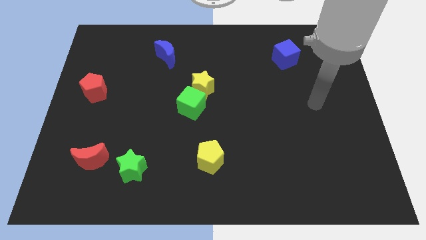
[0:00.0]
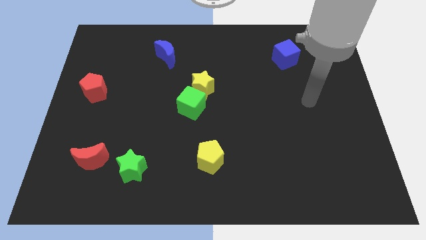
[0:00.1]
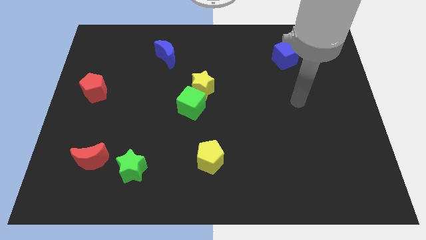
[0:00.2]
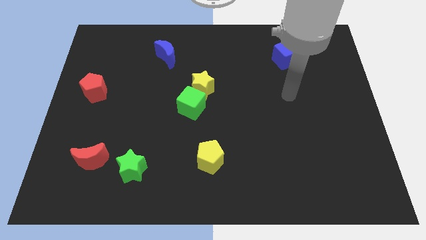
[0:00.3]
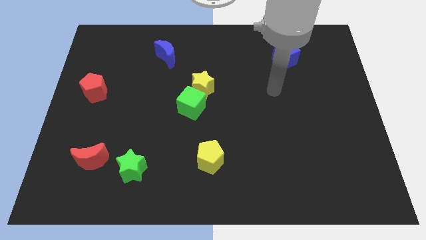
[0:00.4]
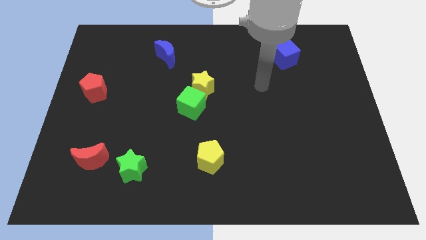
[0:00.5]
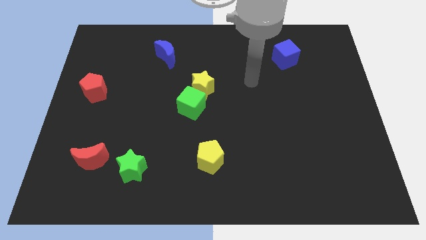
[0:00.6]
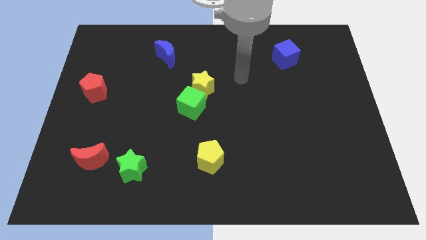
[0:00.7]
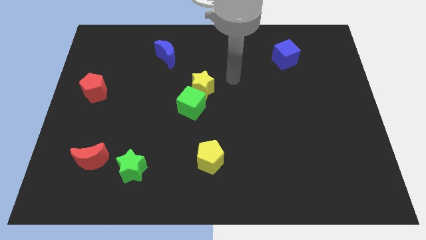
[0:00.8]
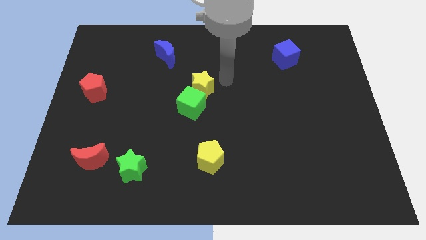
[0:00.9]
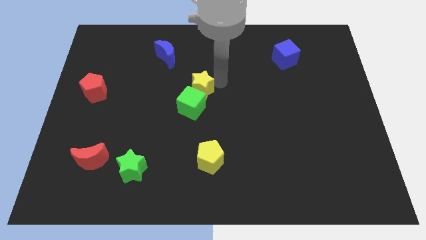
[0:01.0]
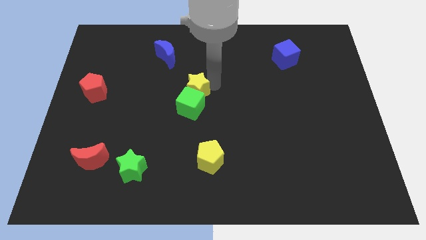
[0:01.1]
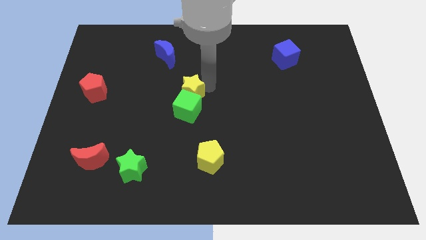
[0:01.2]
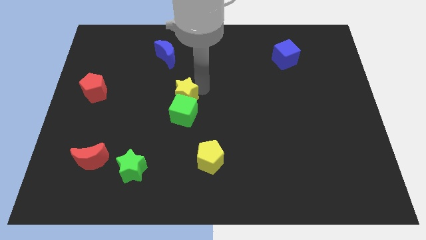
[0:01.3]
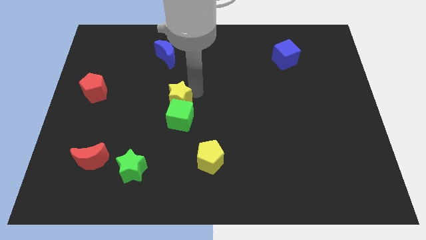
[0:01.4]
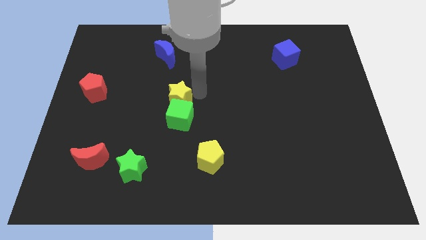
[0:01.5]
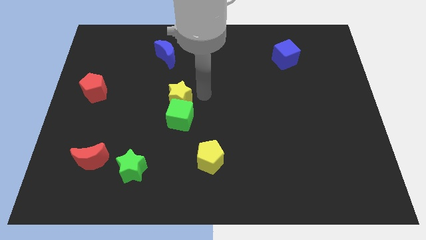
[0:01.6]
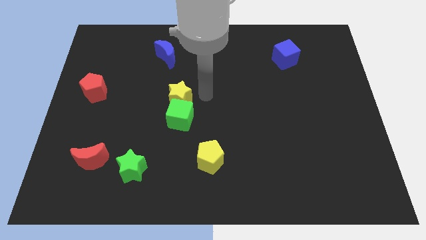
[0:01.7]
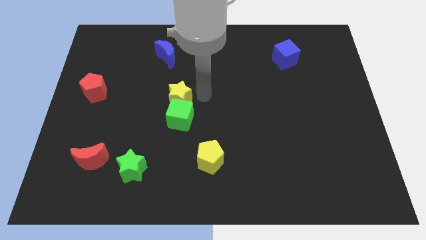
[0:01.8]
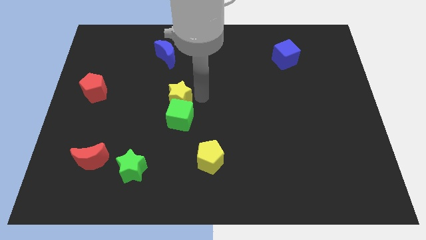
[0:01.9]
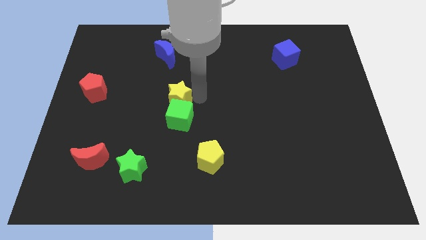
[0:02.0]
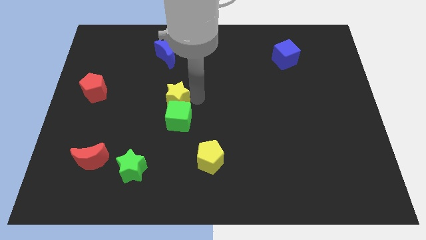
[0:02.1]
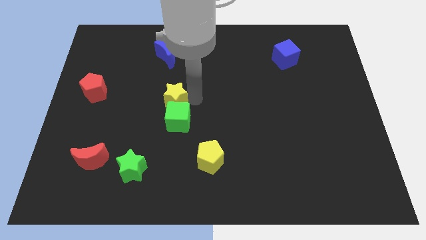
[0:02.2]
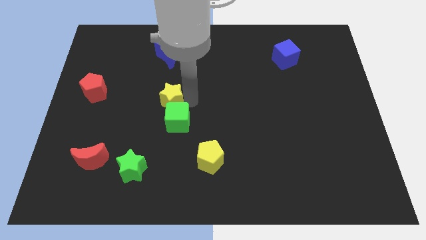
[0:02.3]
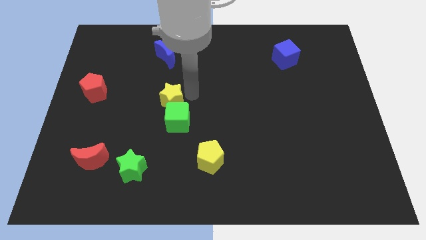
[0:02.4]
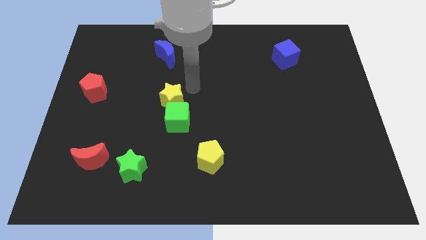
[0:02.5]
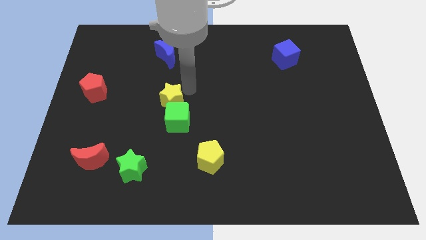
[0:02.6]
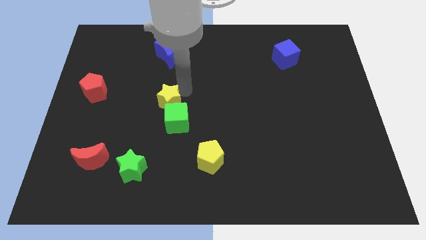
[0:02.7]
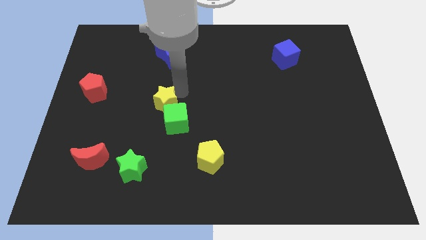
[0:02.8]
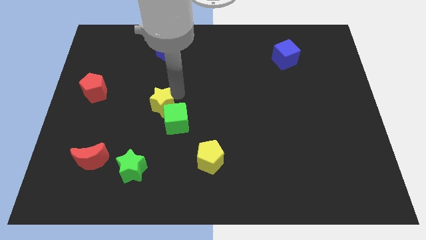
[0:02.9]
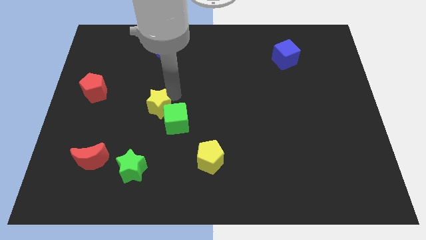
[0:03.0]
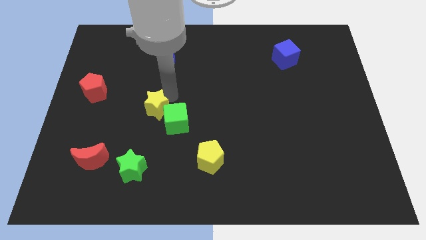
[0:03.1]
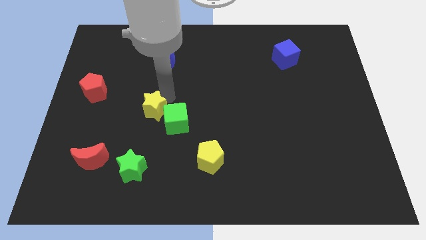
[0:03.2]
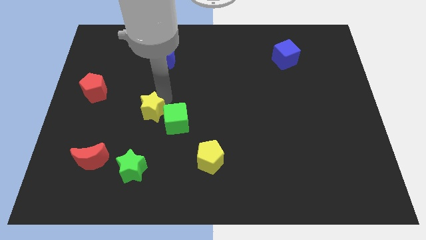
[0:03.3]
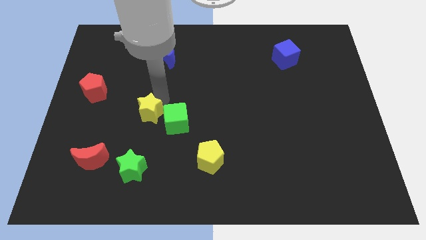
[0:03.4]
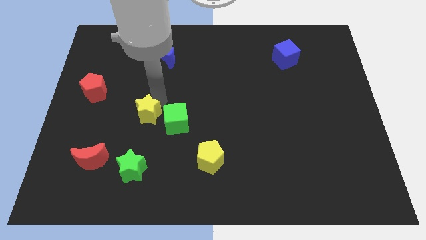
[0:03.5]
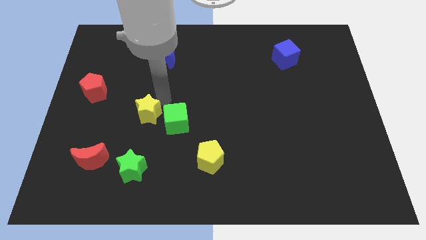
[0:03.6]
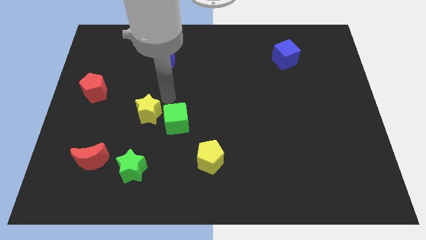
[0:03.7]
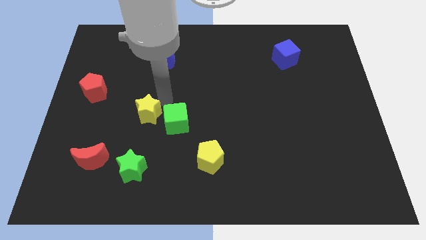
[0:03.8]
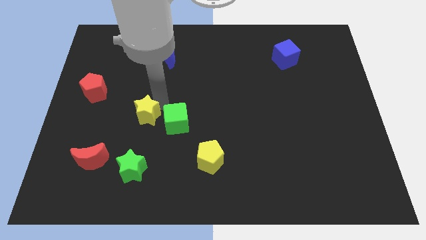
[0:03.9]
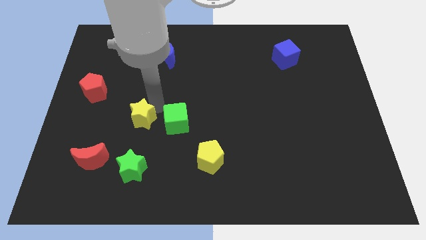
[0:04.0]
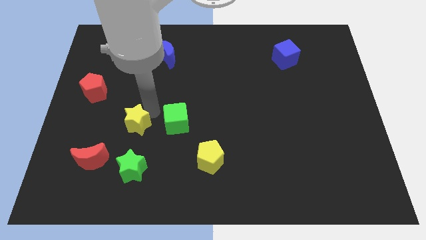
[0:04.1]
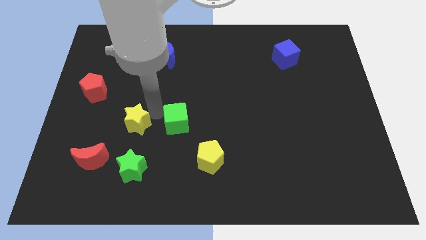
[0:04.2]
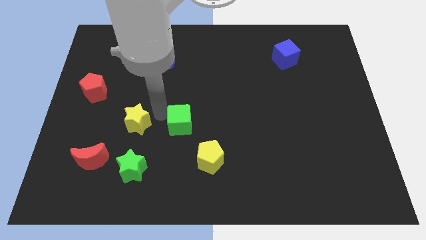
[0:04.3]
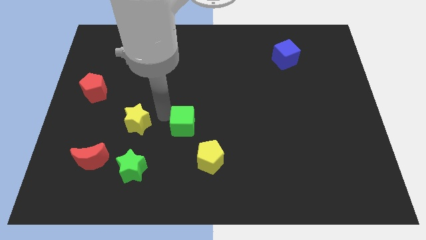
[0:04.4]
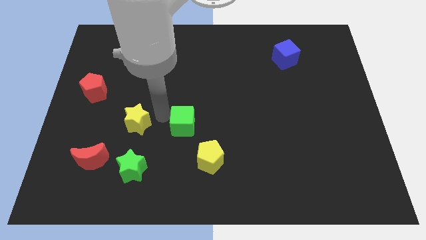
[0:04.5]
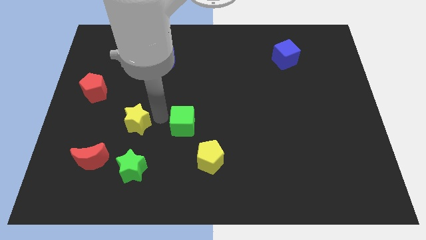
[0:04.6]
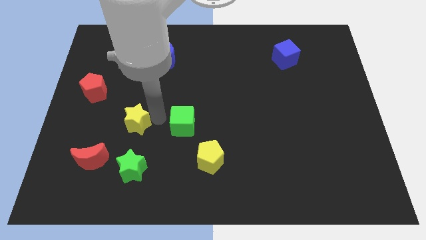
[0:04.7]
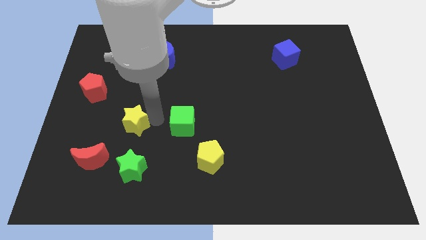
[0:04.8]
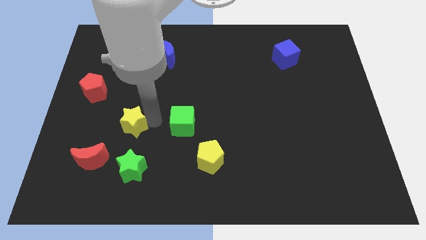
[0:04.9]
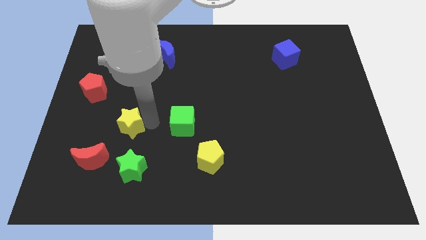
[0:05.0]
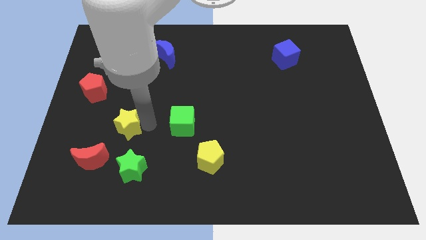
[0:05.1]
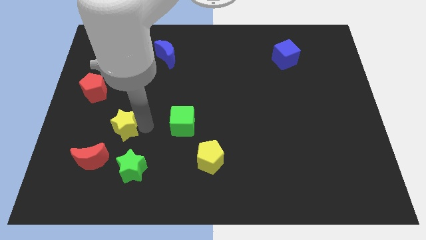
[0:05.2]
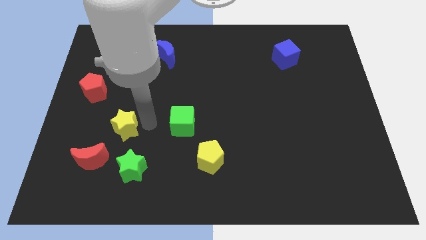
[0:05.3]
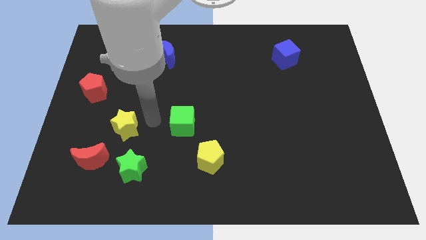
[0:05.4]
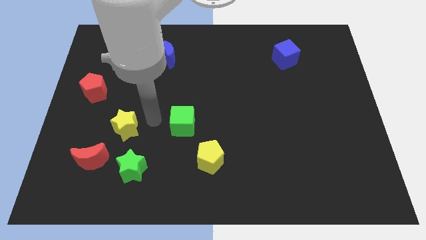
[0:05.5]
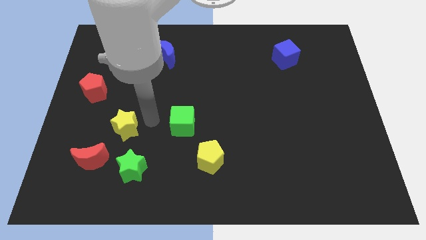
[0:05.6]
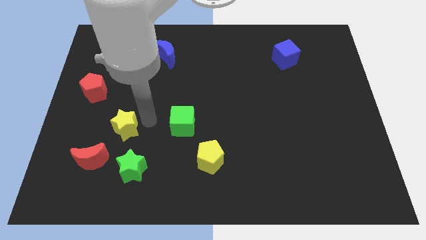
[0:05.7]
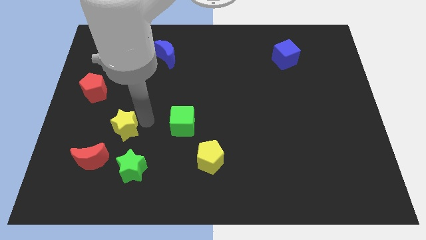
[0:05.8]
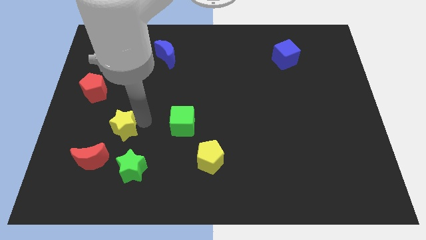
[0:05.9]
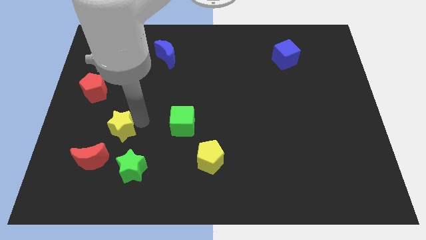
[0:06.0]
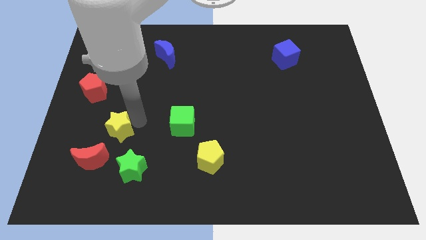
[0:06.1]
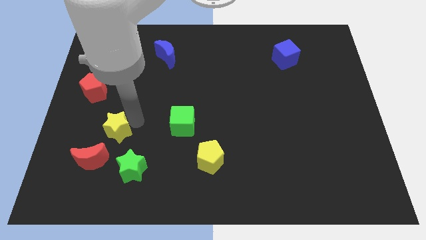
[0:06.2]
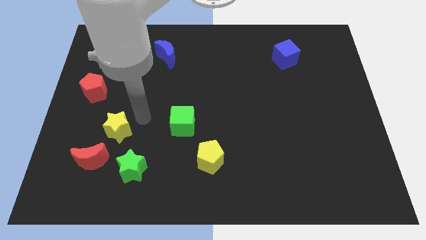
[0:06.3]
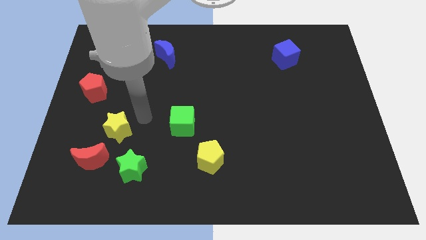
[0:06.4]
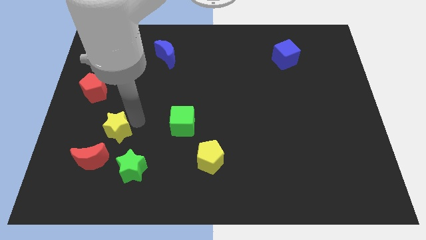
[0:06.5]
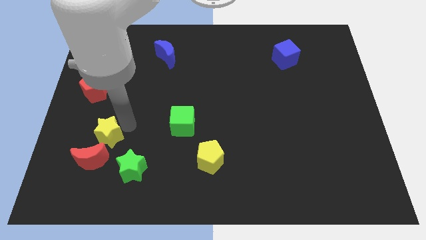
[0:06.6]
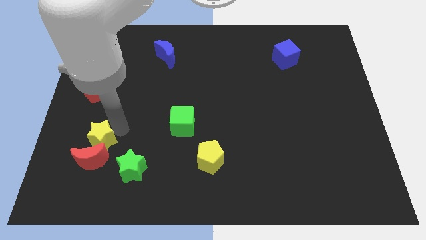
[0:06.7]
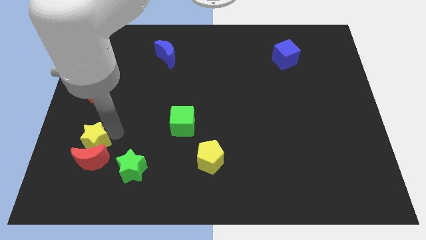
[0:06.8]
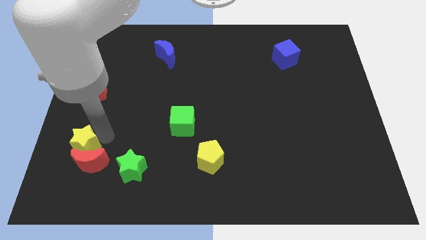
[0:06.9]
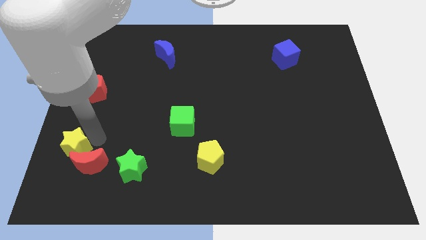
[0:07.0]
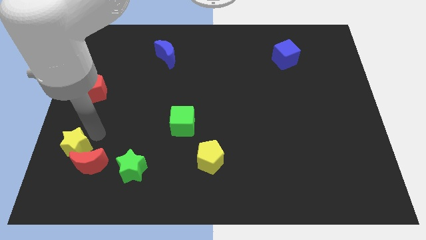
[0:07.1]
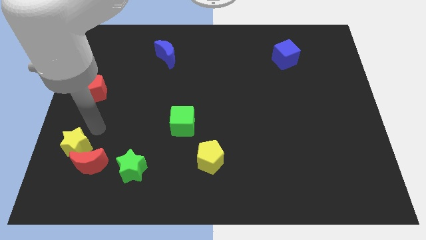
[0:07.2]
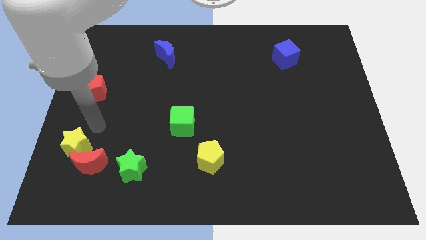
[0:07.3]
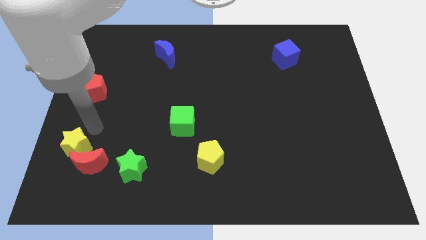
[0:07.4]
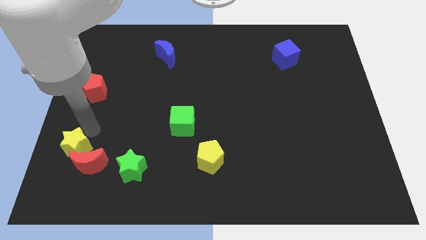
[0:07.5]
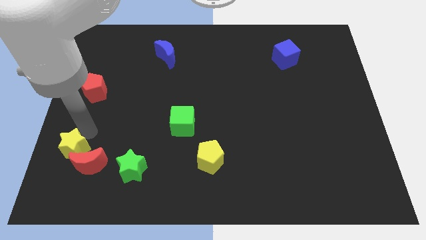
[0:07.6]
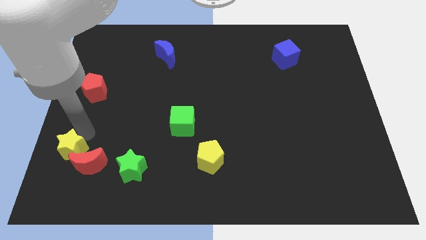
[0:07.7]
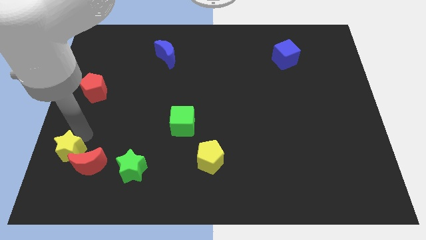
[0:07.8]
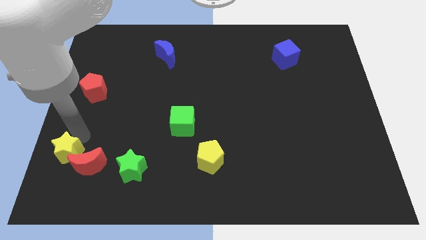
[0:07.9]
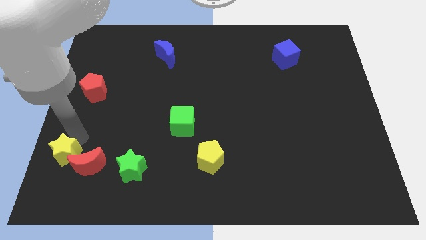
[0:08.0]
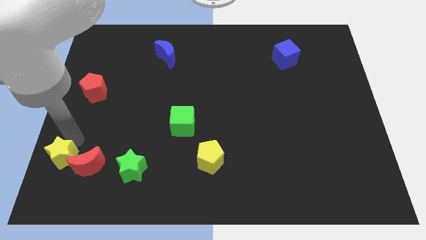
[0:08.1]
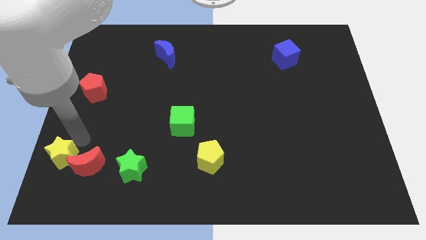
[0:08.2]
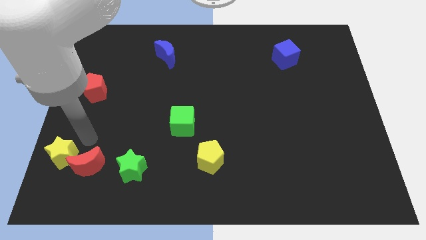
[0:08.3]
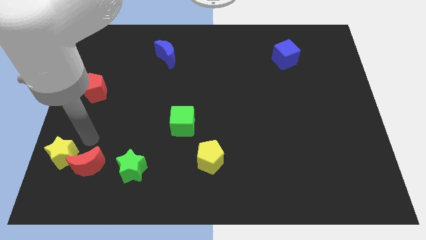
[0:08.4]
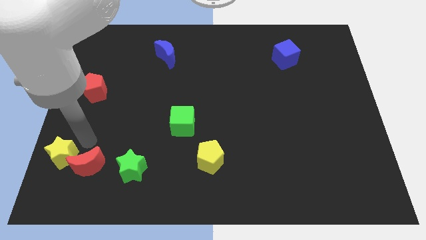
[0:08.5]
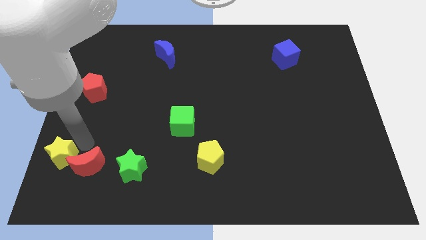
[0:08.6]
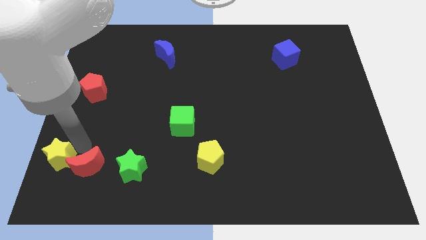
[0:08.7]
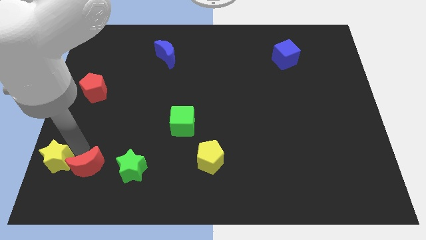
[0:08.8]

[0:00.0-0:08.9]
move the yellow star to the lower left corner
